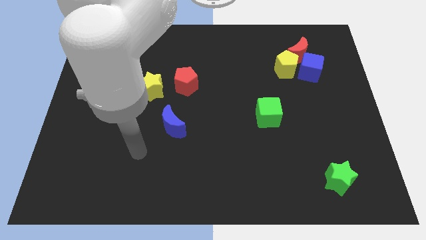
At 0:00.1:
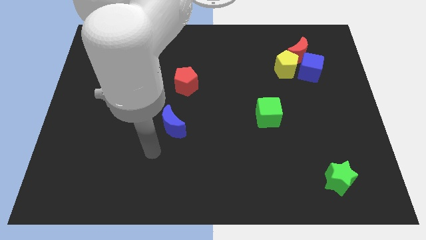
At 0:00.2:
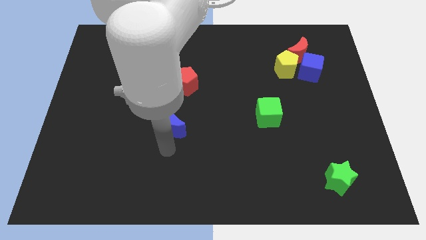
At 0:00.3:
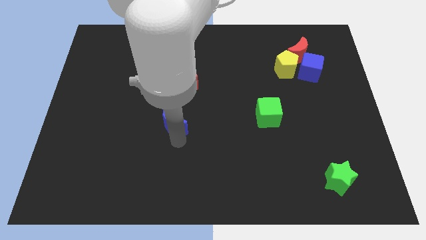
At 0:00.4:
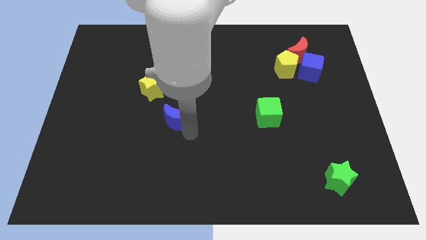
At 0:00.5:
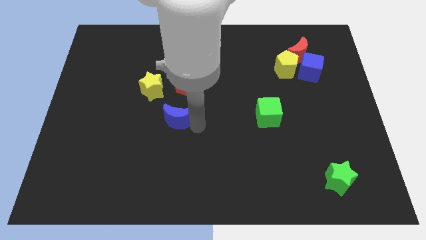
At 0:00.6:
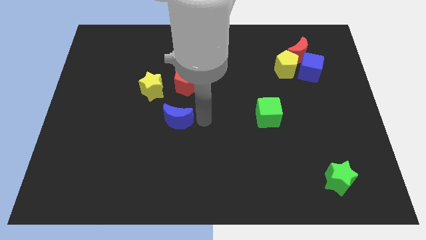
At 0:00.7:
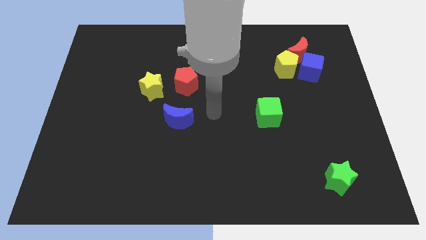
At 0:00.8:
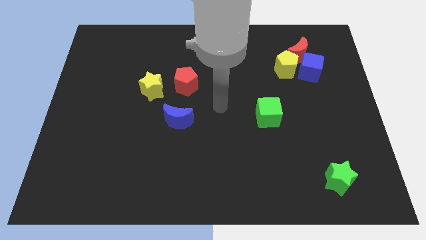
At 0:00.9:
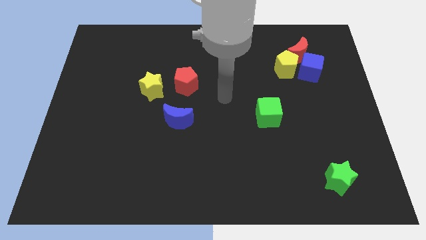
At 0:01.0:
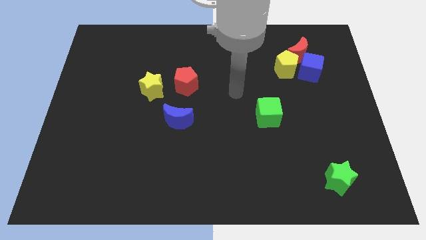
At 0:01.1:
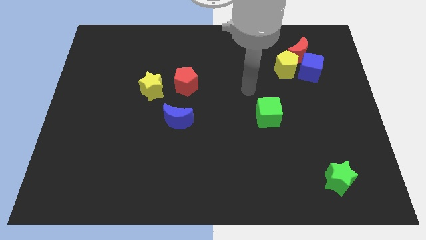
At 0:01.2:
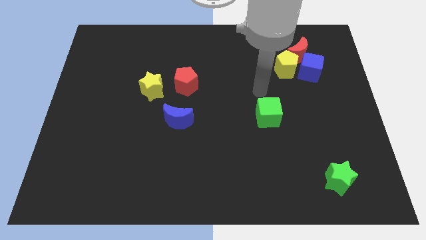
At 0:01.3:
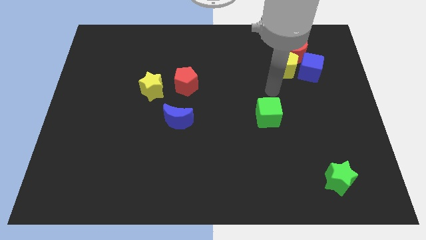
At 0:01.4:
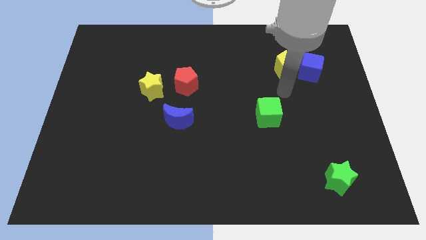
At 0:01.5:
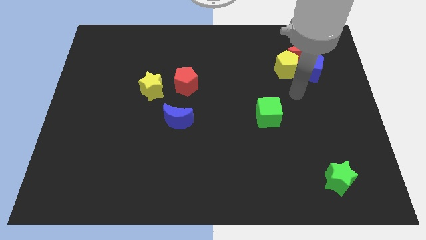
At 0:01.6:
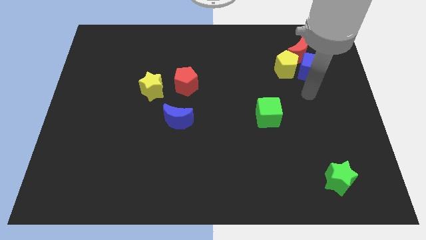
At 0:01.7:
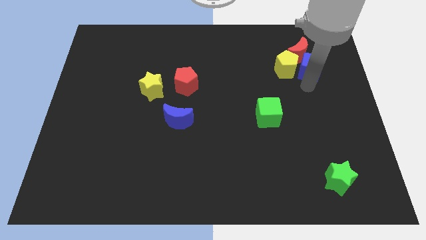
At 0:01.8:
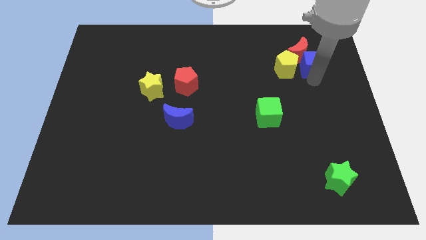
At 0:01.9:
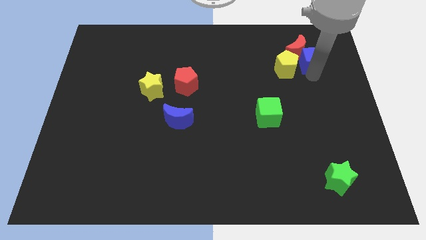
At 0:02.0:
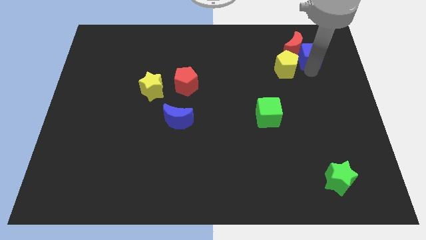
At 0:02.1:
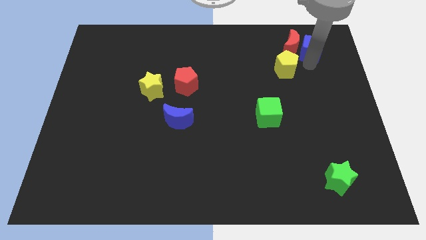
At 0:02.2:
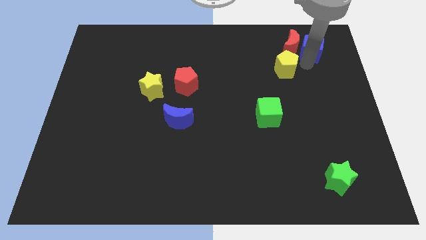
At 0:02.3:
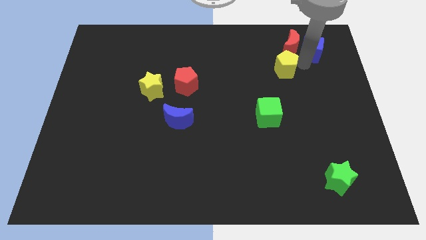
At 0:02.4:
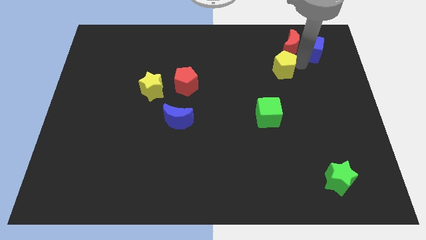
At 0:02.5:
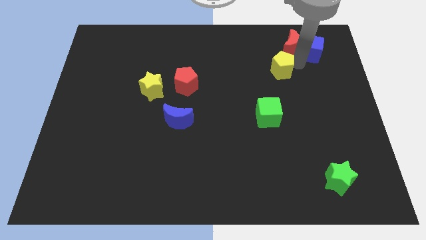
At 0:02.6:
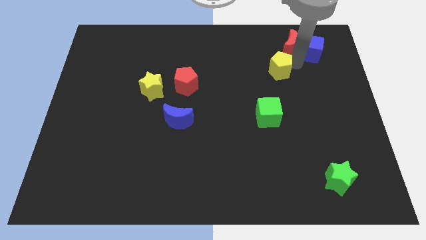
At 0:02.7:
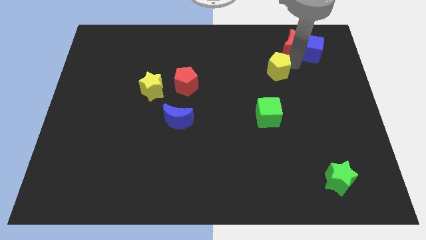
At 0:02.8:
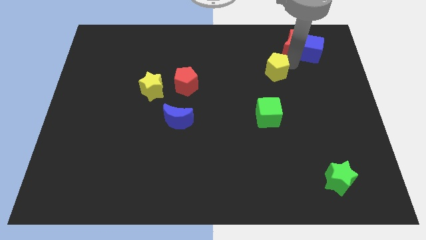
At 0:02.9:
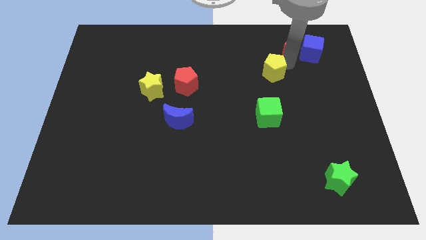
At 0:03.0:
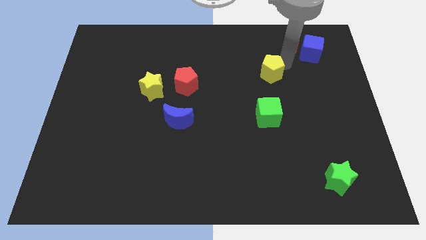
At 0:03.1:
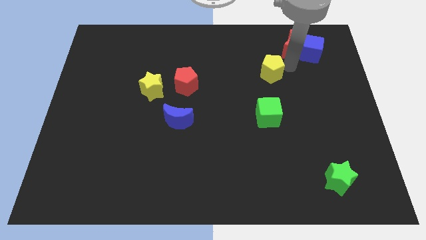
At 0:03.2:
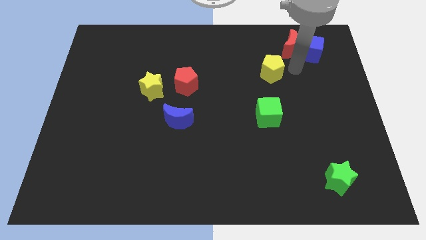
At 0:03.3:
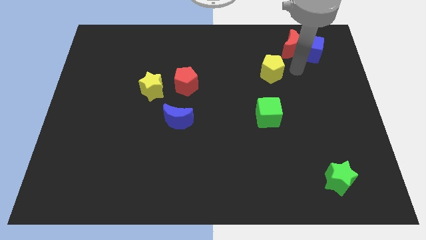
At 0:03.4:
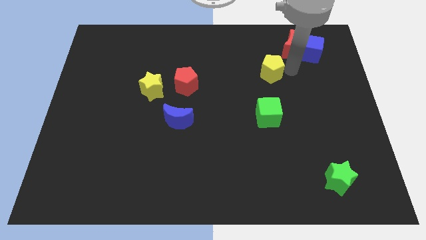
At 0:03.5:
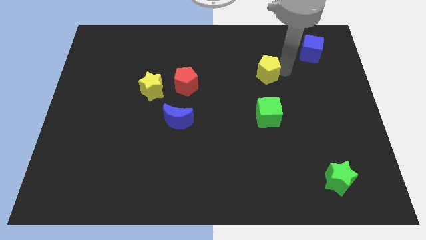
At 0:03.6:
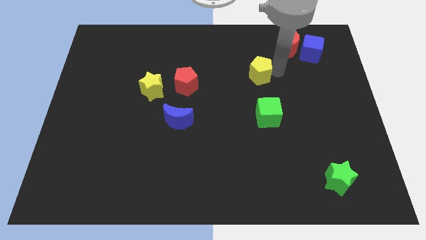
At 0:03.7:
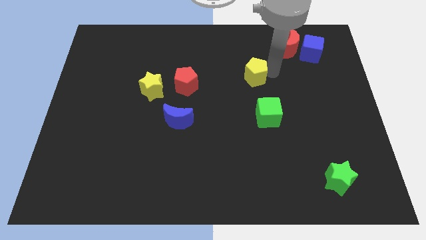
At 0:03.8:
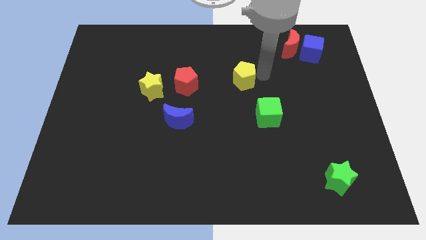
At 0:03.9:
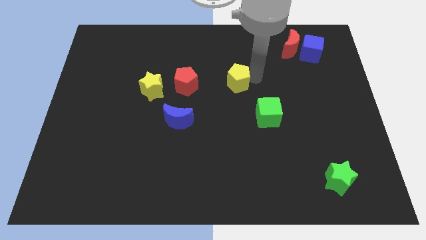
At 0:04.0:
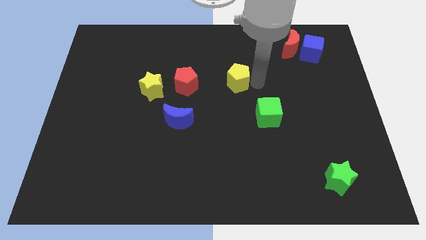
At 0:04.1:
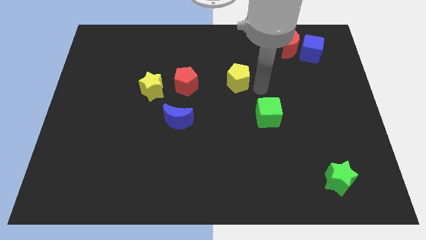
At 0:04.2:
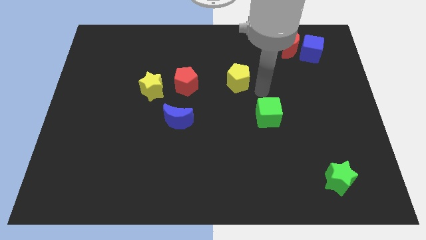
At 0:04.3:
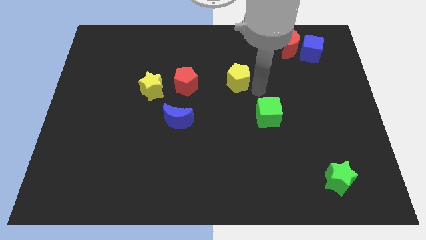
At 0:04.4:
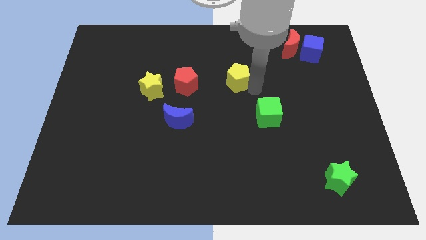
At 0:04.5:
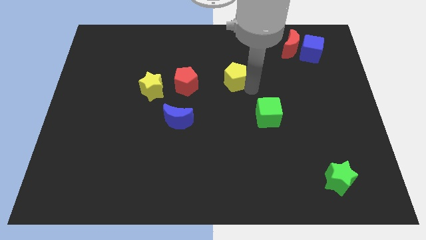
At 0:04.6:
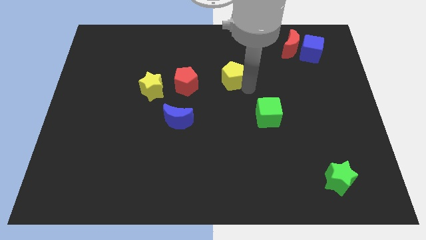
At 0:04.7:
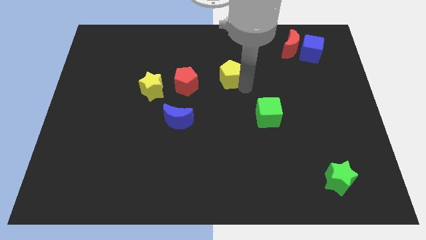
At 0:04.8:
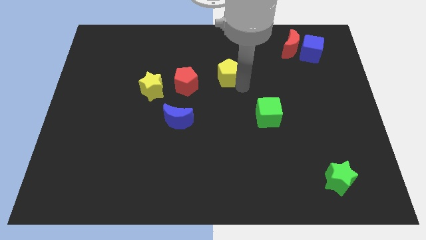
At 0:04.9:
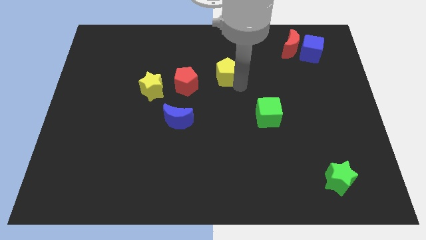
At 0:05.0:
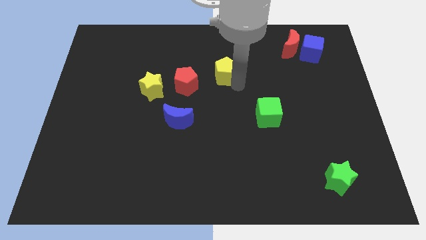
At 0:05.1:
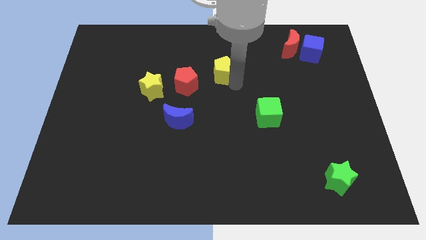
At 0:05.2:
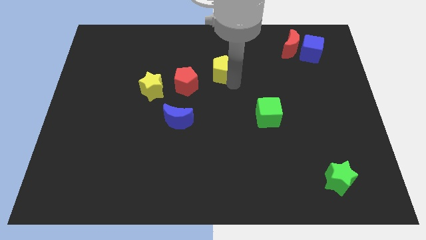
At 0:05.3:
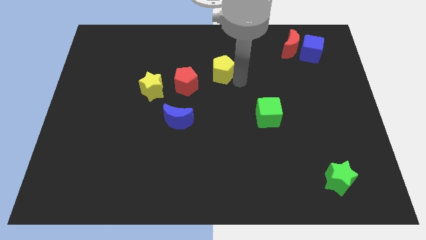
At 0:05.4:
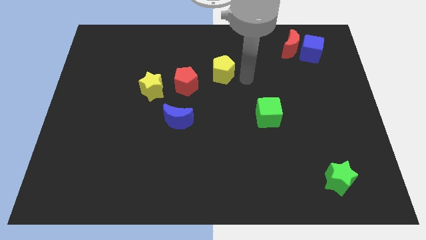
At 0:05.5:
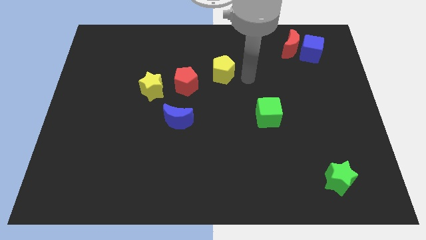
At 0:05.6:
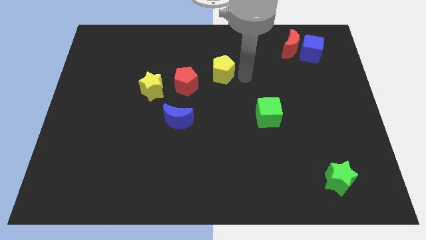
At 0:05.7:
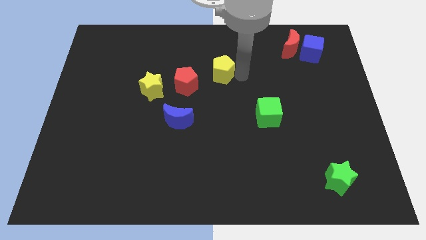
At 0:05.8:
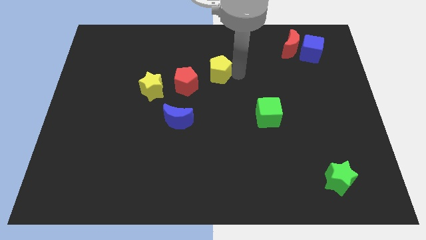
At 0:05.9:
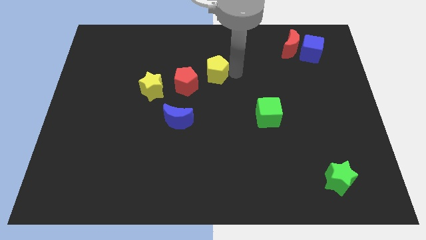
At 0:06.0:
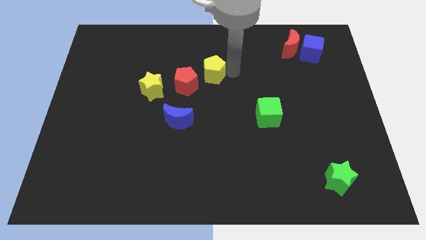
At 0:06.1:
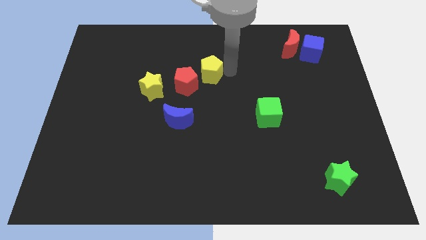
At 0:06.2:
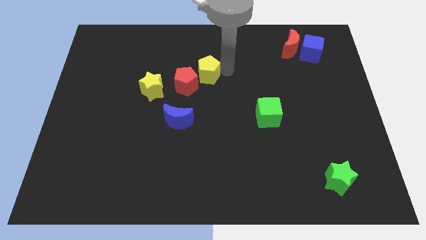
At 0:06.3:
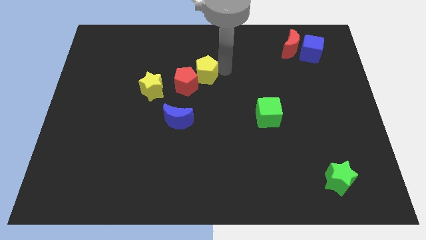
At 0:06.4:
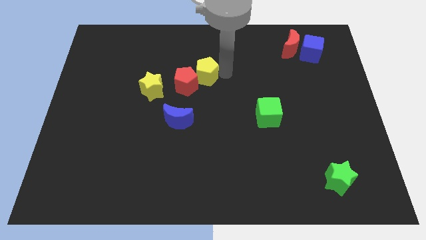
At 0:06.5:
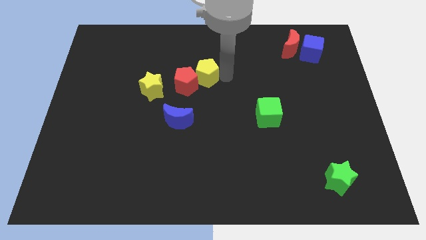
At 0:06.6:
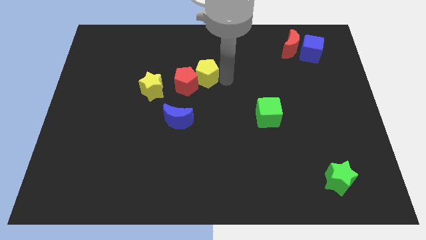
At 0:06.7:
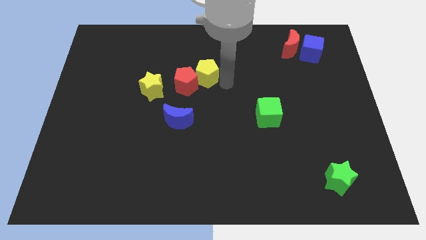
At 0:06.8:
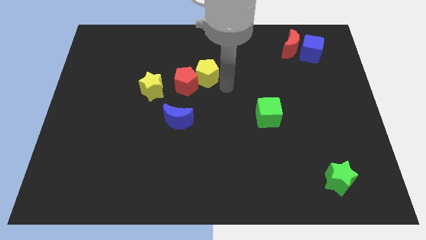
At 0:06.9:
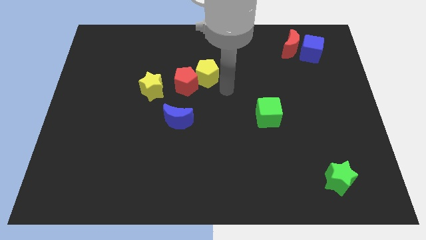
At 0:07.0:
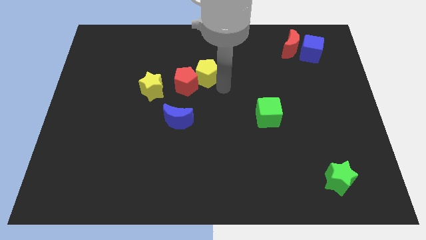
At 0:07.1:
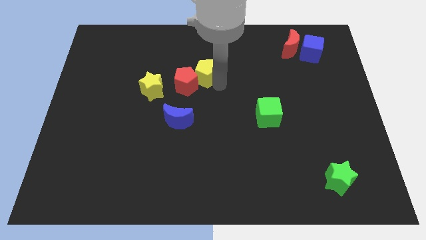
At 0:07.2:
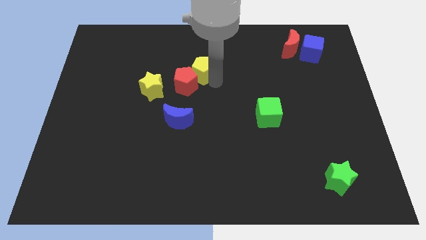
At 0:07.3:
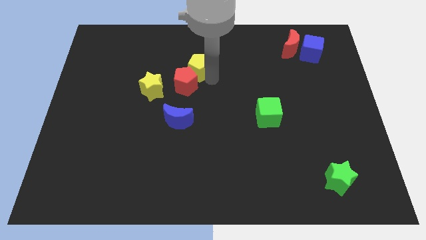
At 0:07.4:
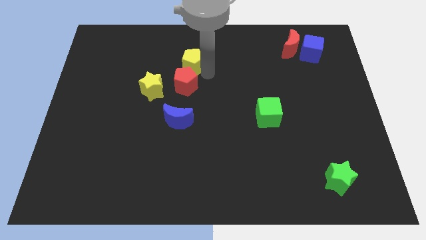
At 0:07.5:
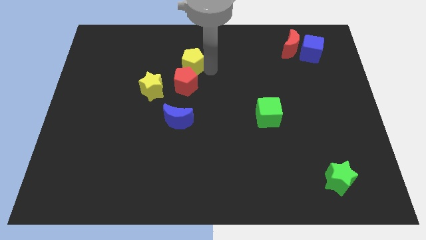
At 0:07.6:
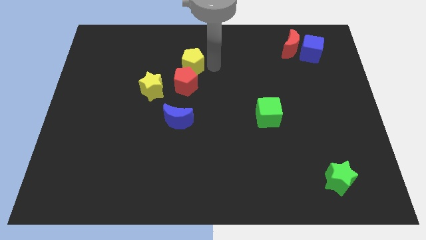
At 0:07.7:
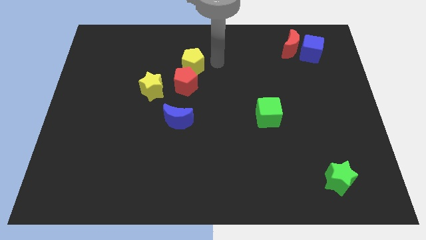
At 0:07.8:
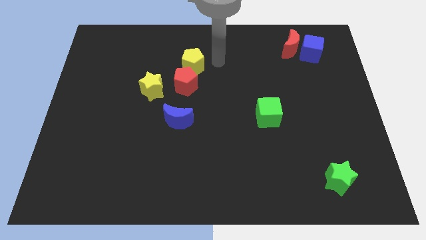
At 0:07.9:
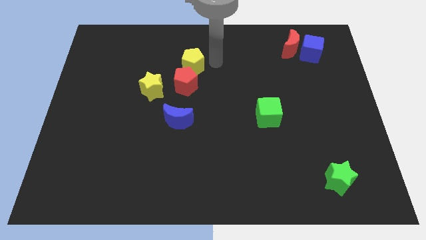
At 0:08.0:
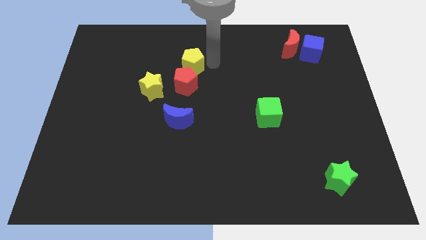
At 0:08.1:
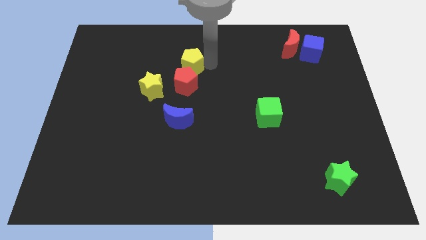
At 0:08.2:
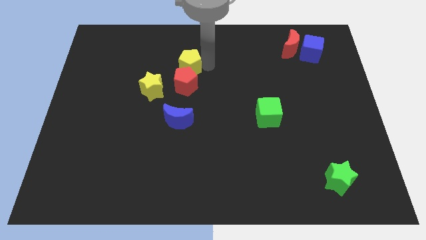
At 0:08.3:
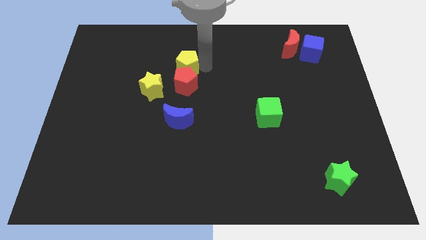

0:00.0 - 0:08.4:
slide the yellow pentagon to the top left of the red pentagon
